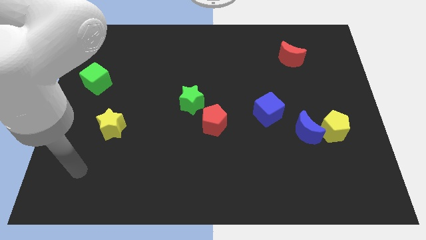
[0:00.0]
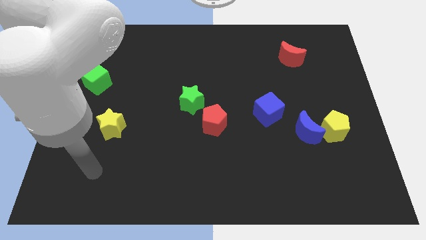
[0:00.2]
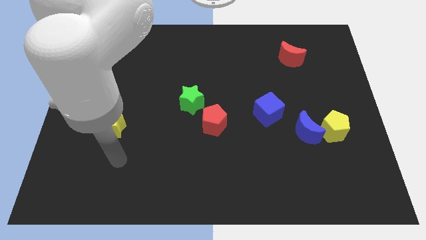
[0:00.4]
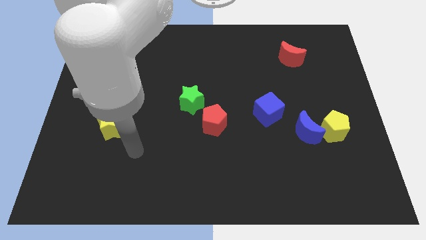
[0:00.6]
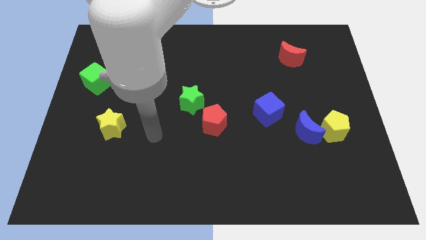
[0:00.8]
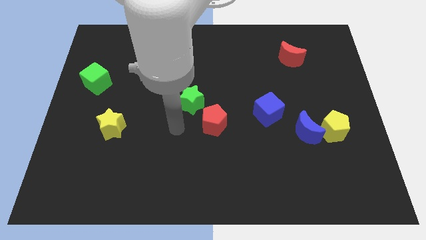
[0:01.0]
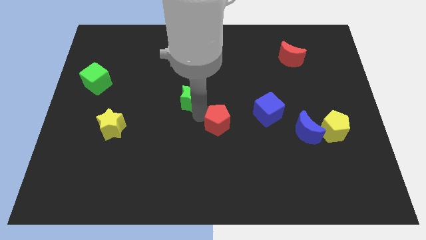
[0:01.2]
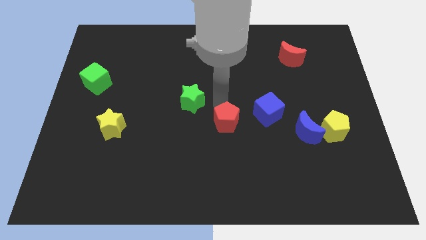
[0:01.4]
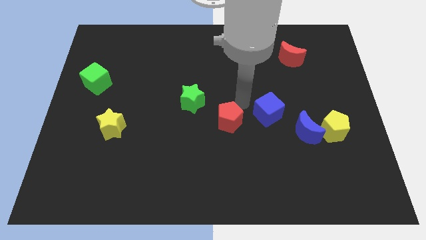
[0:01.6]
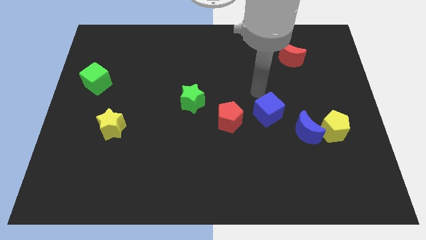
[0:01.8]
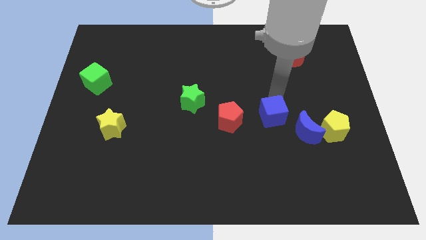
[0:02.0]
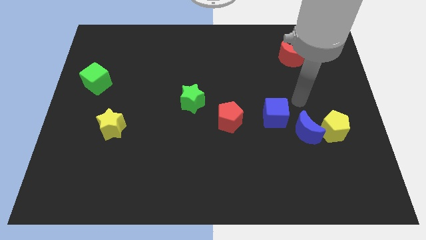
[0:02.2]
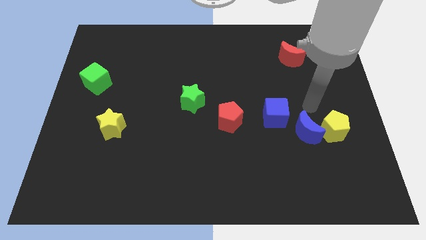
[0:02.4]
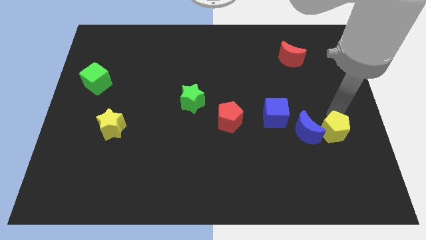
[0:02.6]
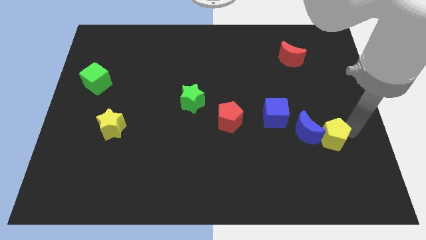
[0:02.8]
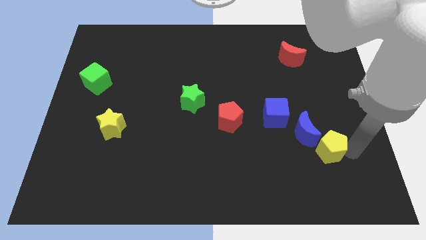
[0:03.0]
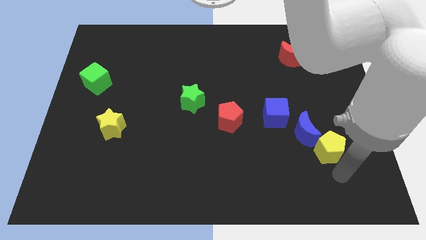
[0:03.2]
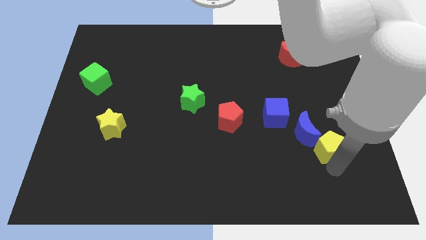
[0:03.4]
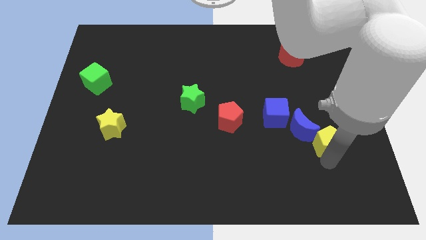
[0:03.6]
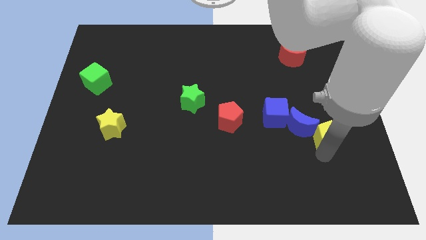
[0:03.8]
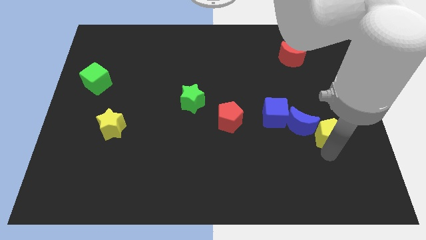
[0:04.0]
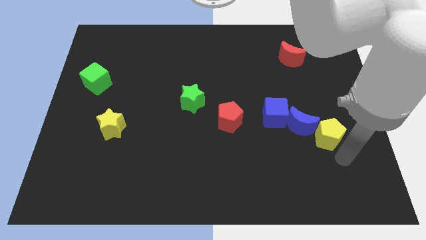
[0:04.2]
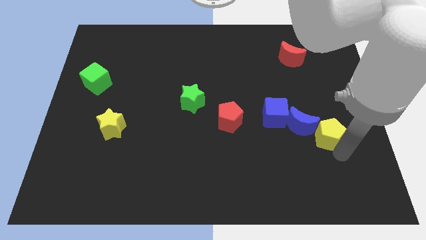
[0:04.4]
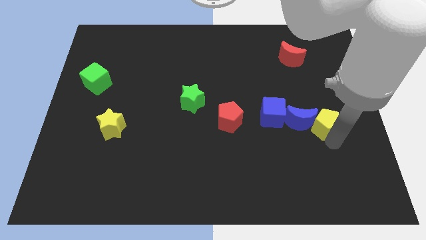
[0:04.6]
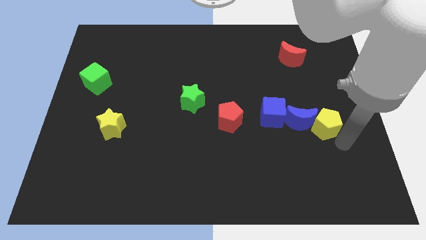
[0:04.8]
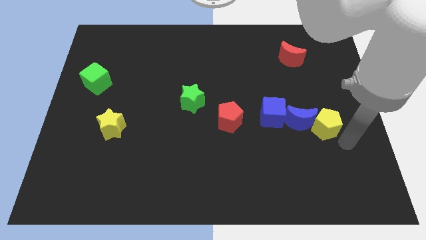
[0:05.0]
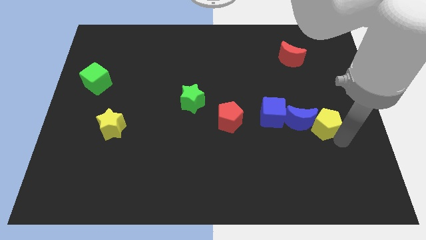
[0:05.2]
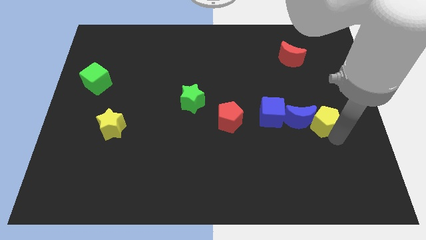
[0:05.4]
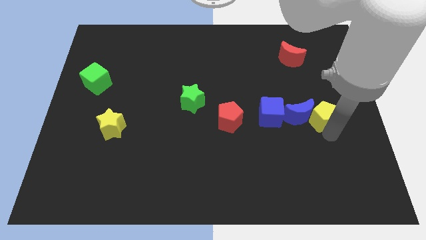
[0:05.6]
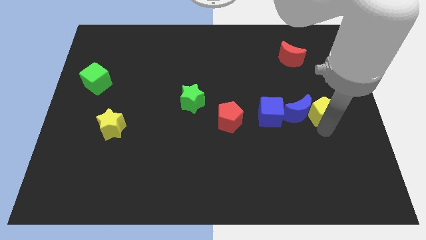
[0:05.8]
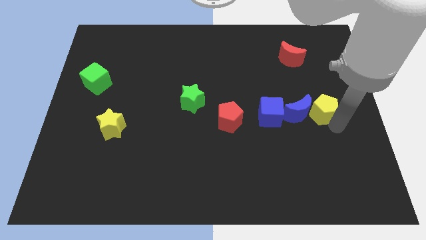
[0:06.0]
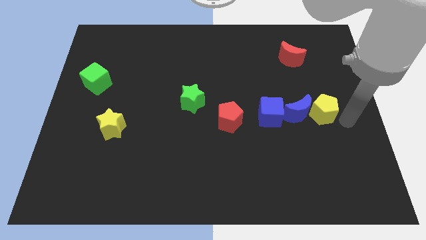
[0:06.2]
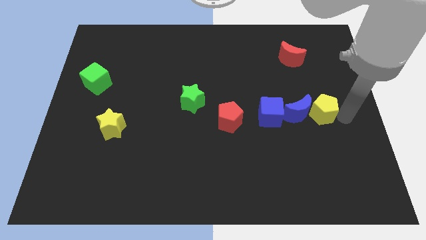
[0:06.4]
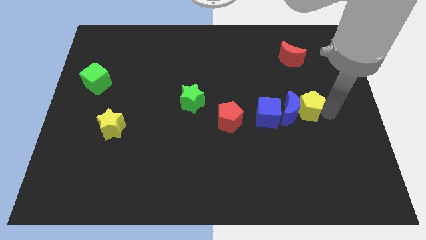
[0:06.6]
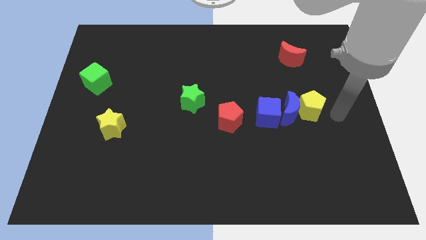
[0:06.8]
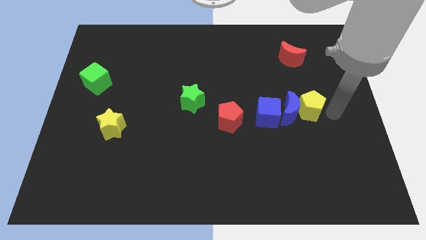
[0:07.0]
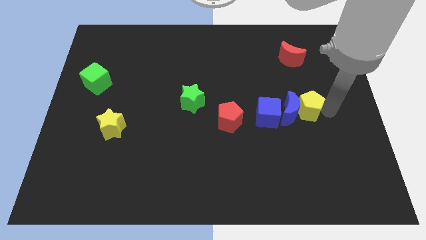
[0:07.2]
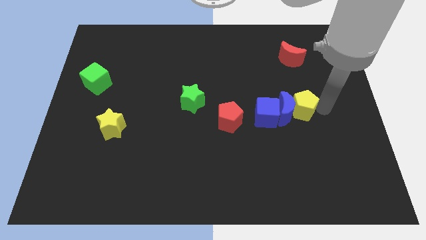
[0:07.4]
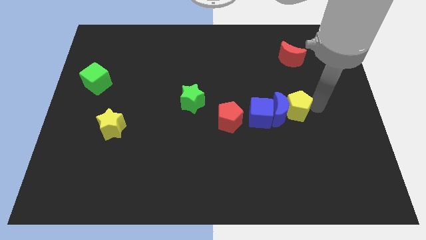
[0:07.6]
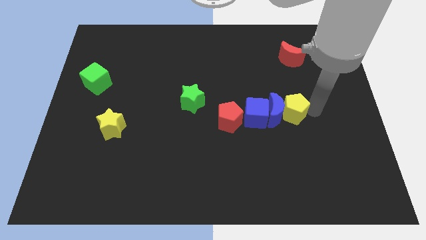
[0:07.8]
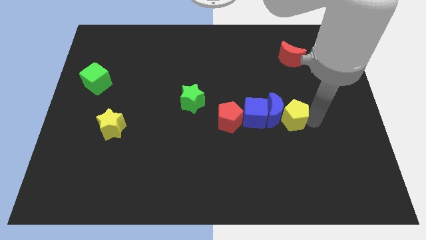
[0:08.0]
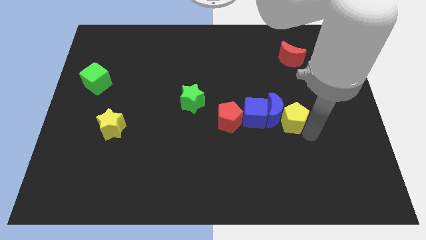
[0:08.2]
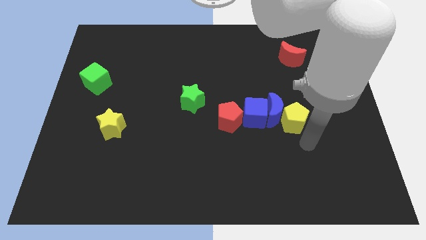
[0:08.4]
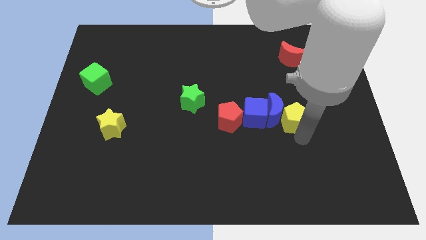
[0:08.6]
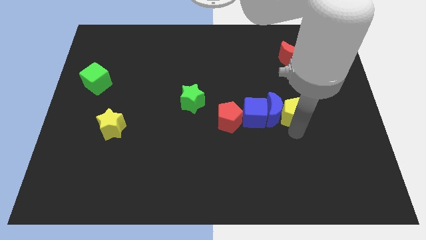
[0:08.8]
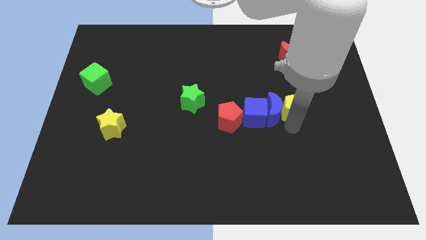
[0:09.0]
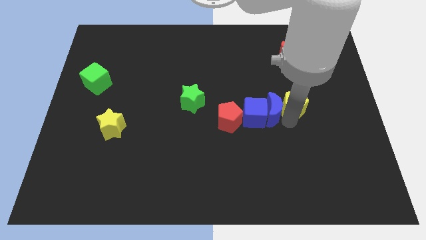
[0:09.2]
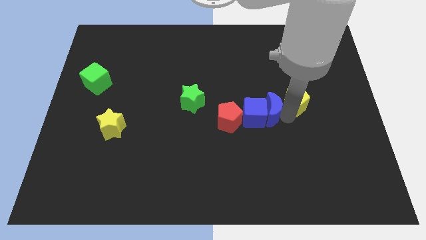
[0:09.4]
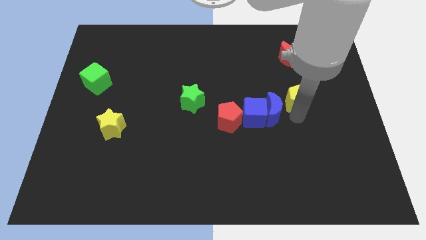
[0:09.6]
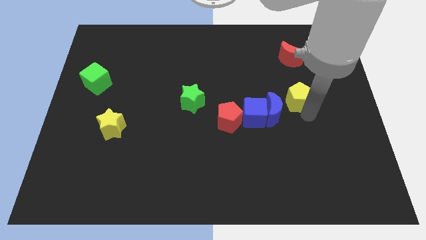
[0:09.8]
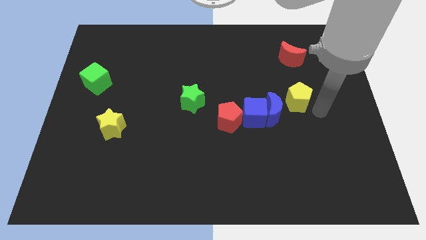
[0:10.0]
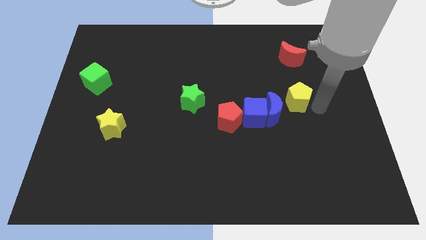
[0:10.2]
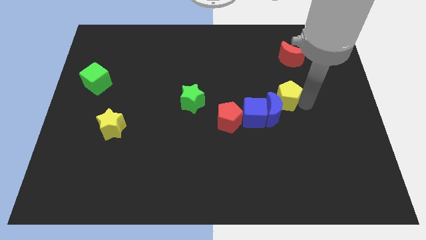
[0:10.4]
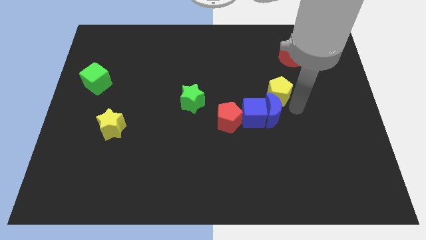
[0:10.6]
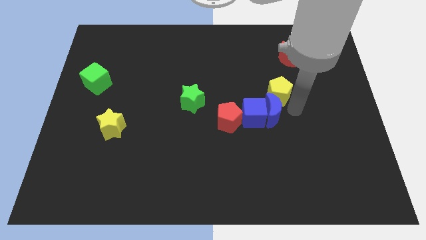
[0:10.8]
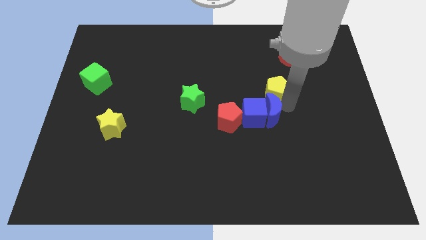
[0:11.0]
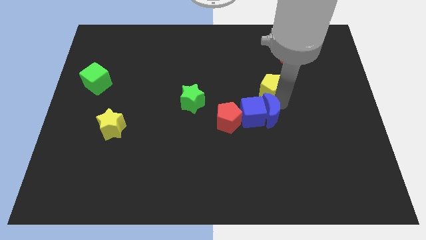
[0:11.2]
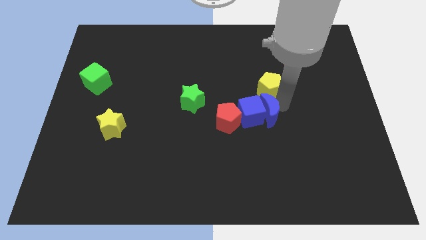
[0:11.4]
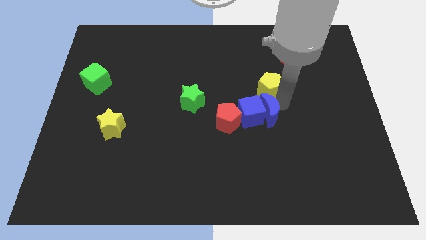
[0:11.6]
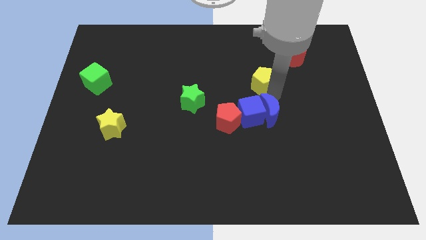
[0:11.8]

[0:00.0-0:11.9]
move the yellow pentagon upwards and to the left diagonally

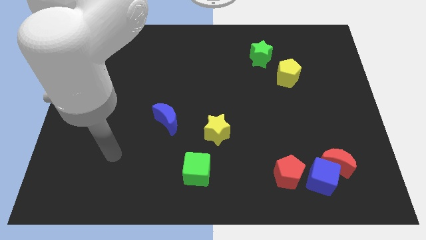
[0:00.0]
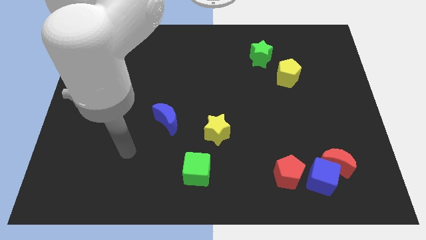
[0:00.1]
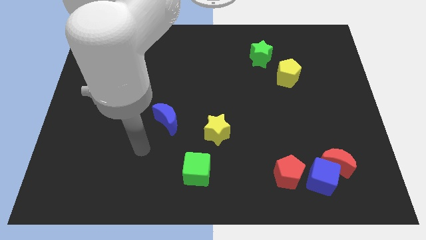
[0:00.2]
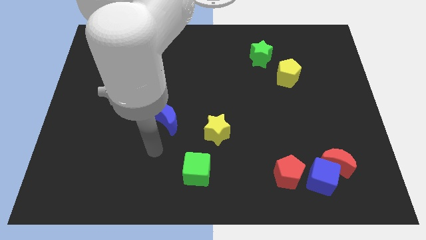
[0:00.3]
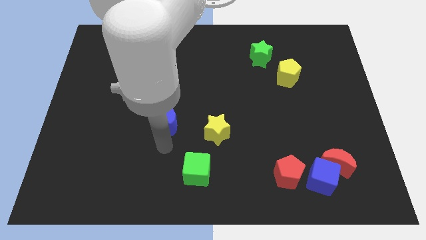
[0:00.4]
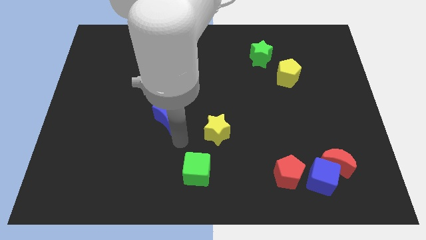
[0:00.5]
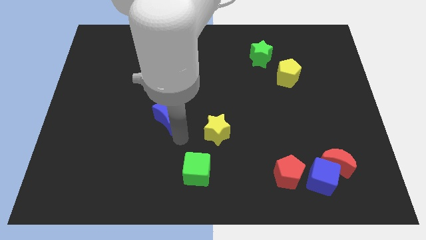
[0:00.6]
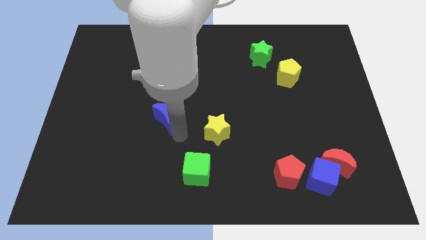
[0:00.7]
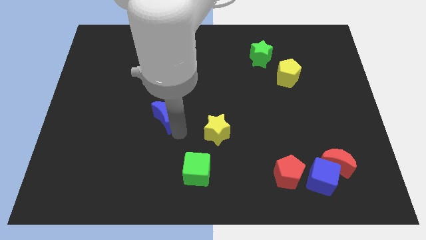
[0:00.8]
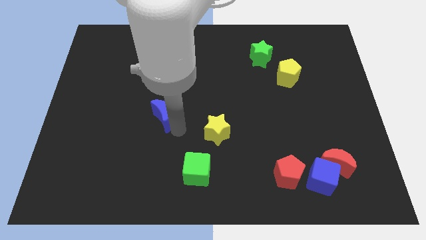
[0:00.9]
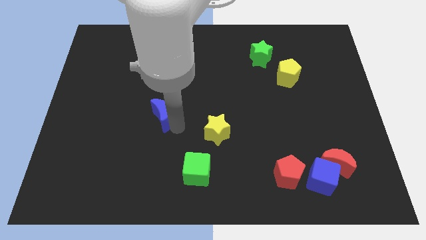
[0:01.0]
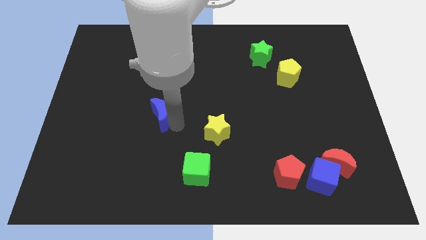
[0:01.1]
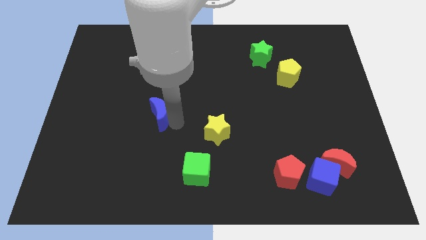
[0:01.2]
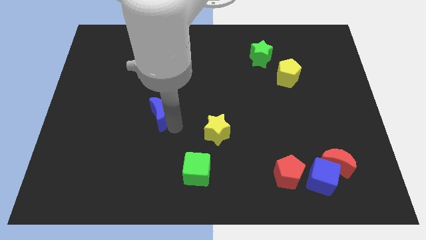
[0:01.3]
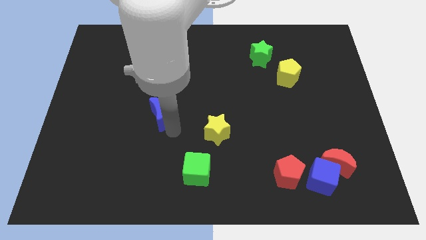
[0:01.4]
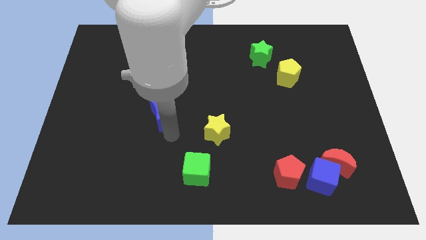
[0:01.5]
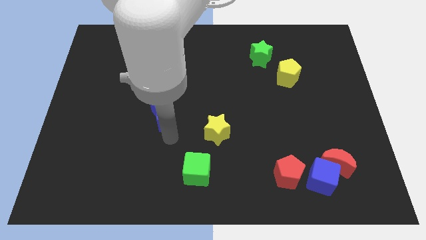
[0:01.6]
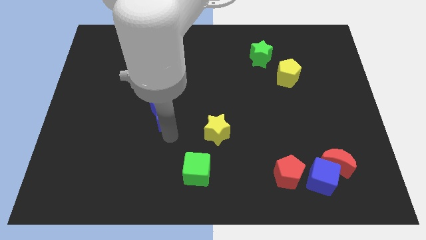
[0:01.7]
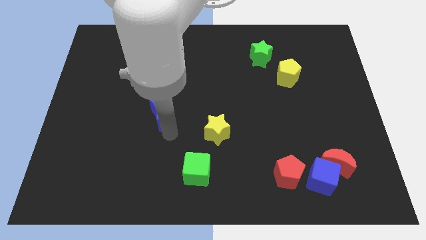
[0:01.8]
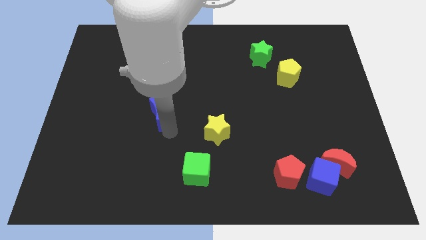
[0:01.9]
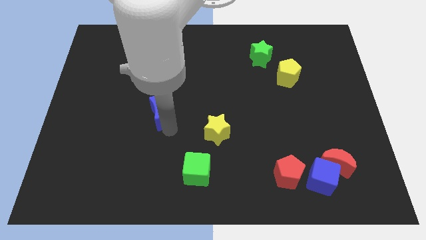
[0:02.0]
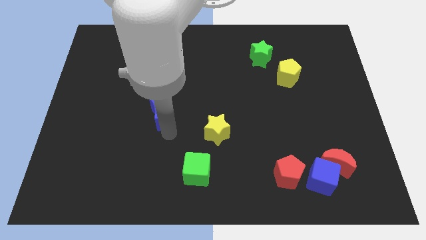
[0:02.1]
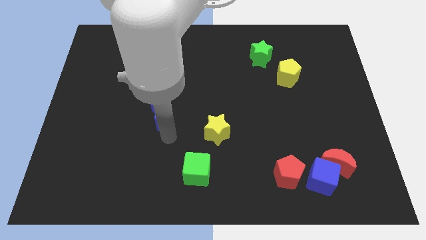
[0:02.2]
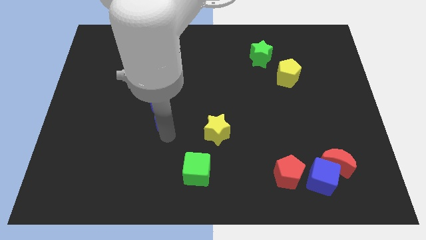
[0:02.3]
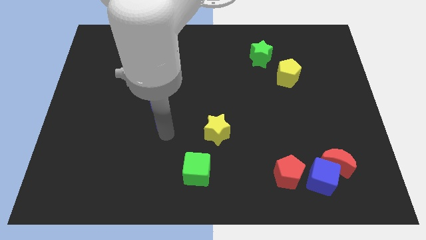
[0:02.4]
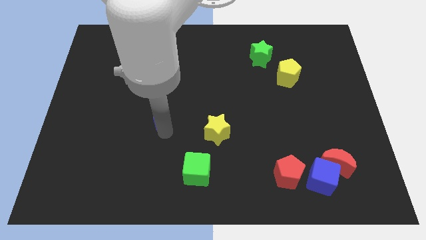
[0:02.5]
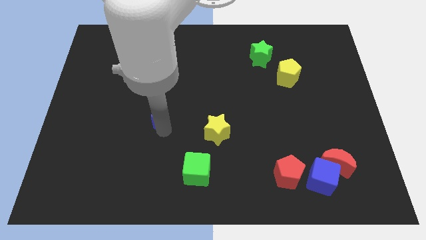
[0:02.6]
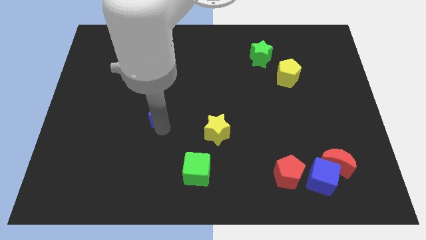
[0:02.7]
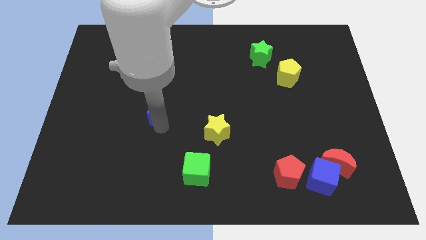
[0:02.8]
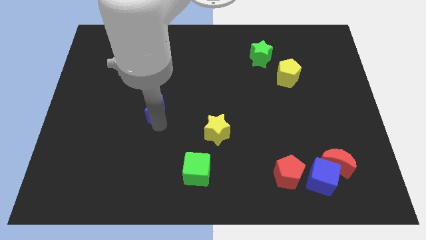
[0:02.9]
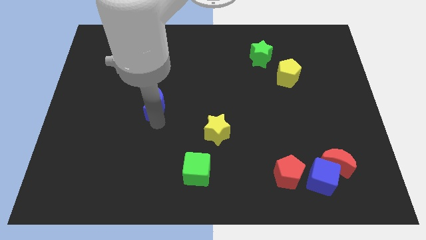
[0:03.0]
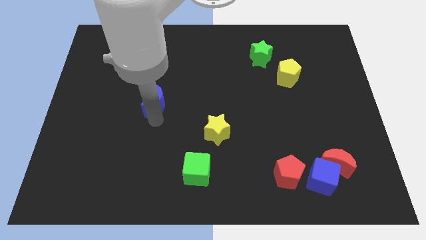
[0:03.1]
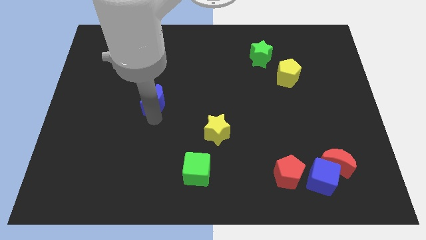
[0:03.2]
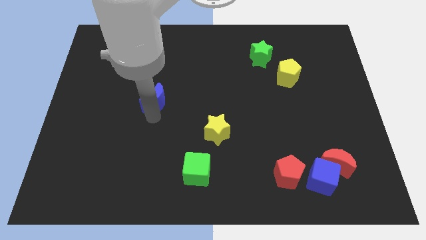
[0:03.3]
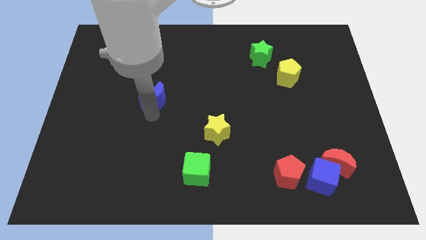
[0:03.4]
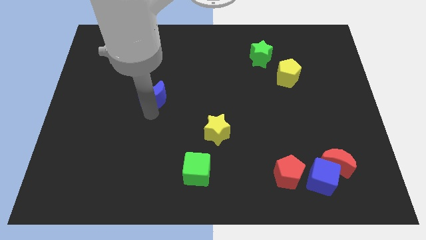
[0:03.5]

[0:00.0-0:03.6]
move the blue moon upwards and then to the left a bit
